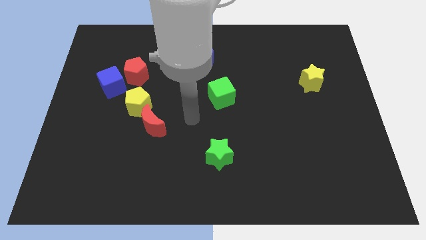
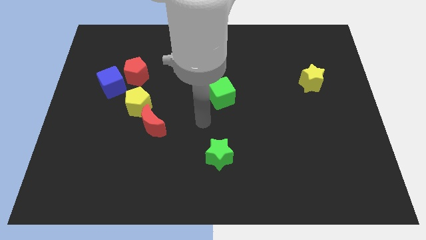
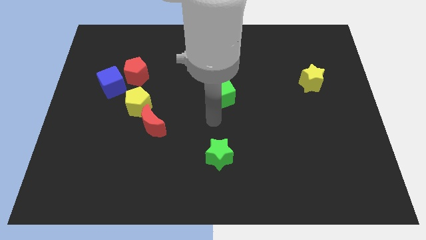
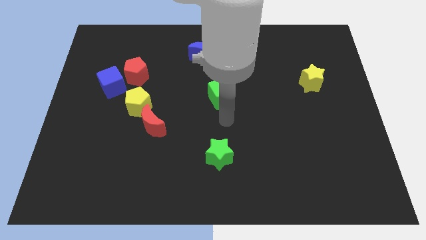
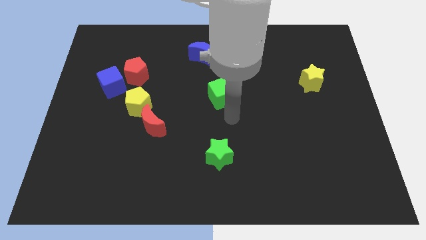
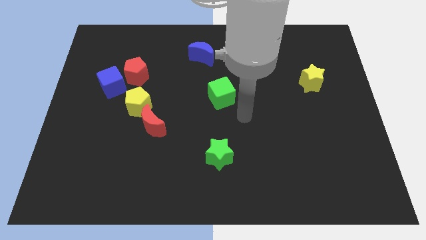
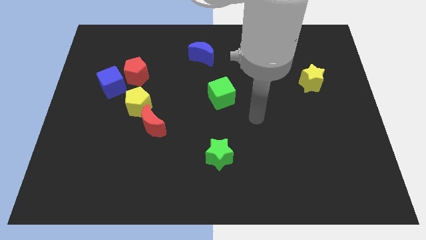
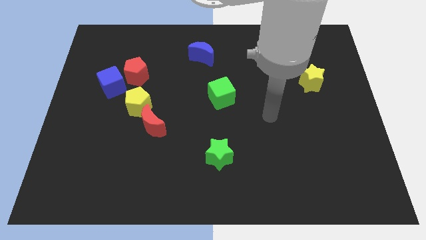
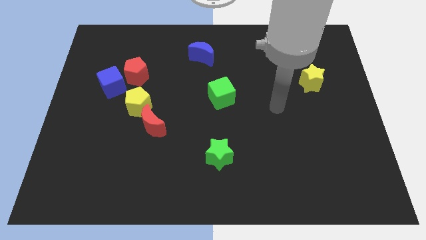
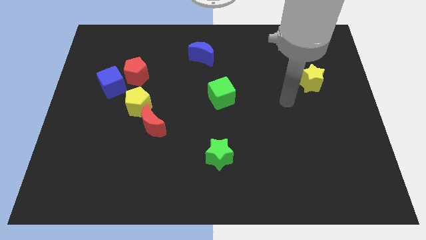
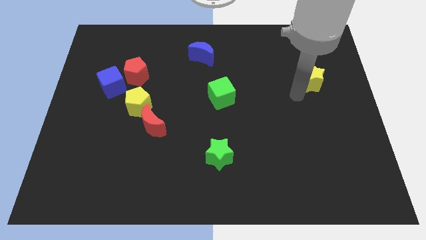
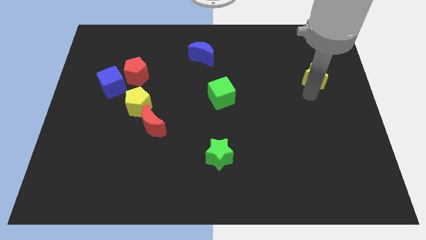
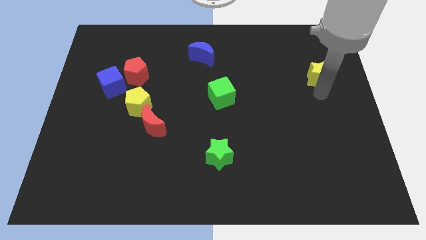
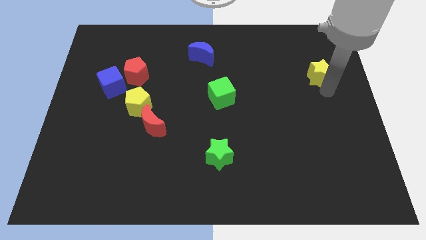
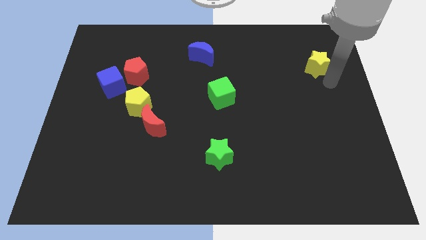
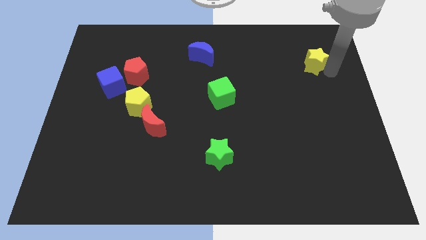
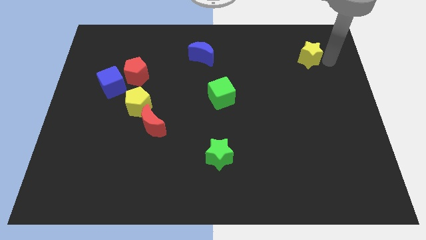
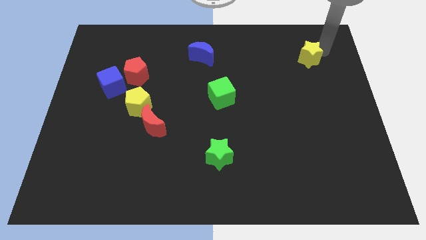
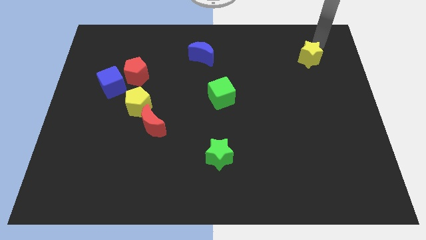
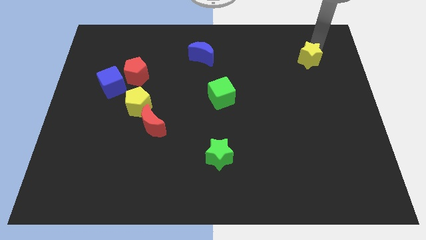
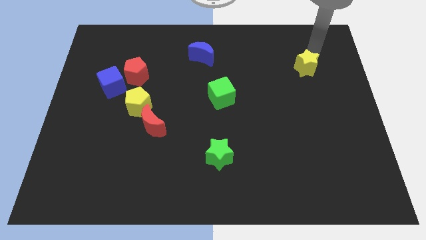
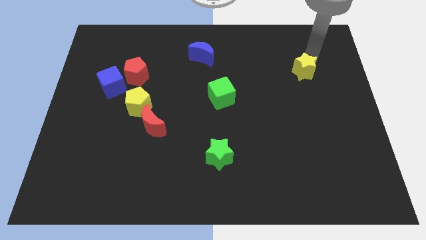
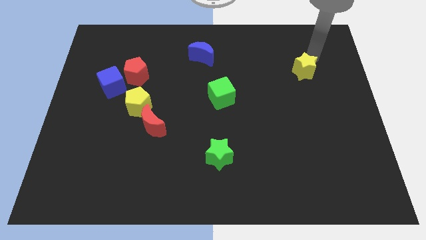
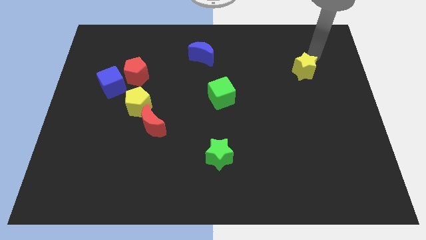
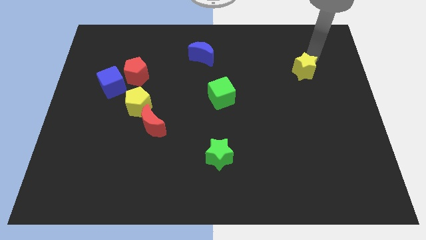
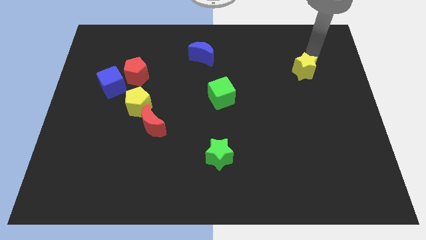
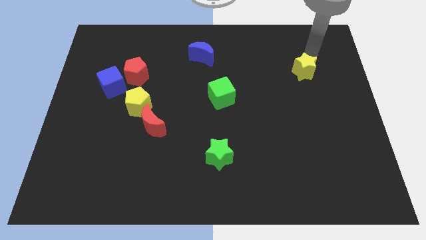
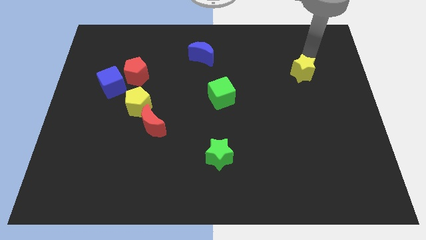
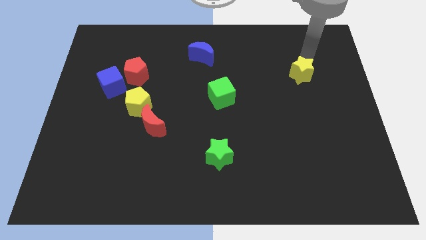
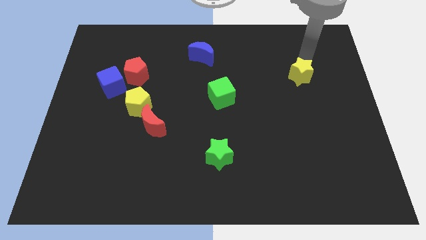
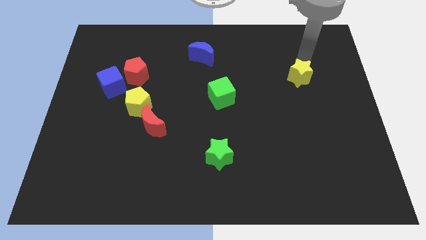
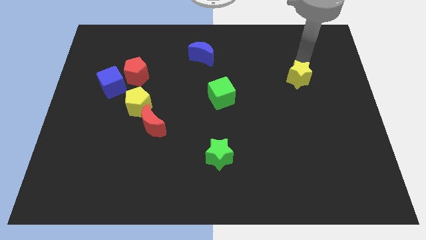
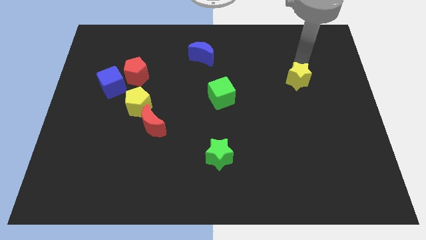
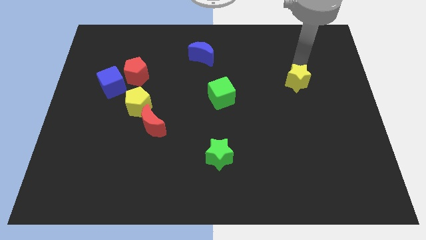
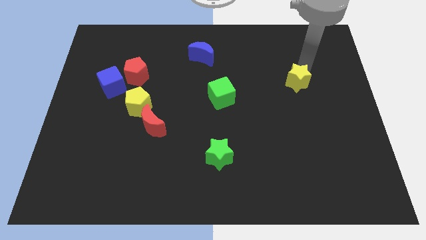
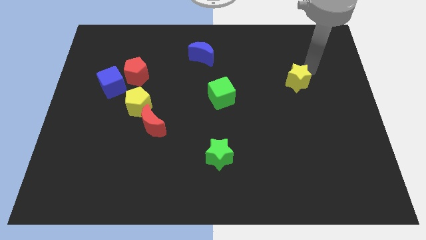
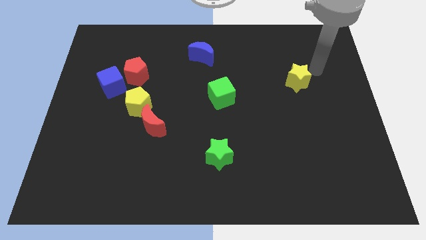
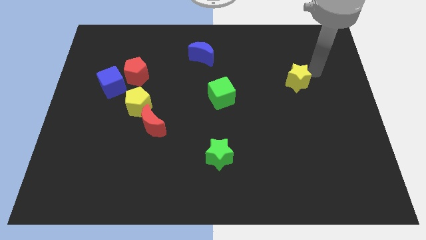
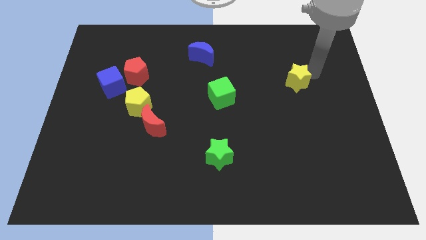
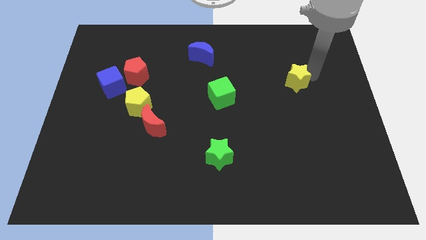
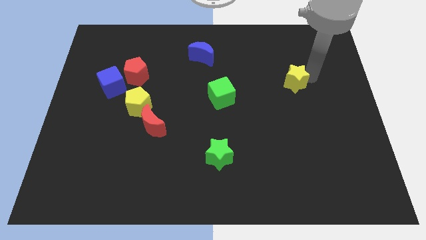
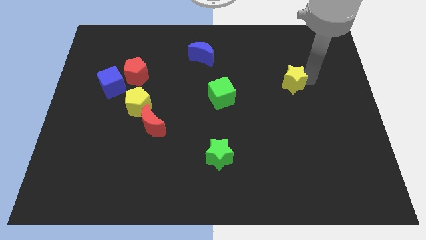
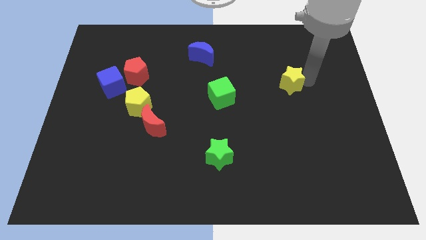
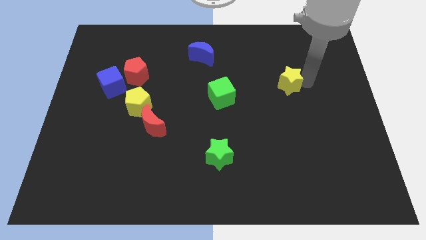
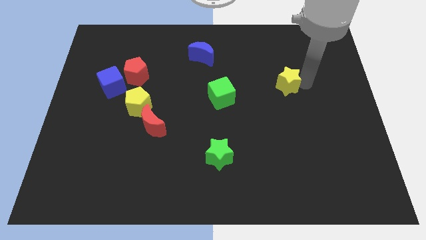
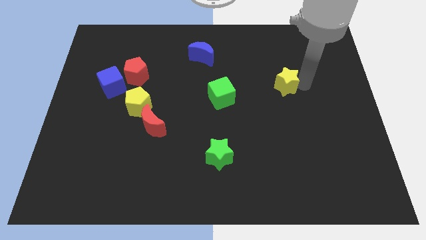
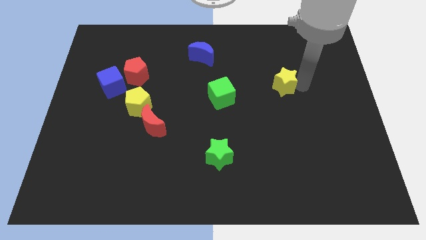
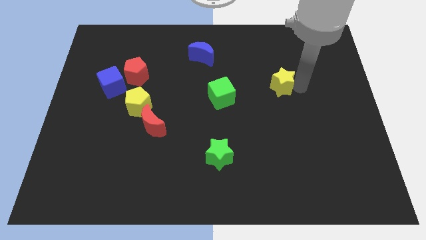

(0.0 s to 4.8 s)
move the yellow star a bit to the left

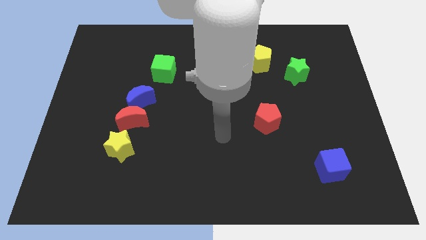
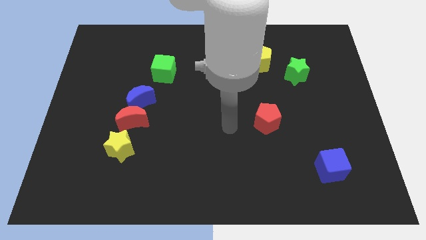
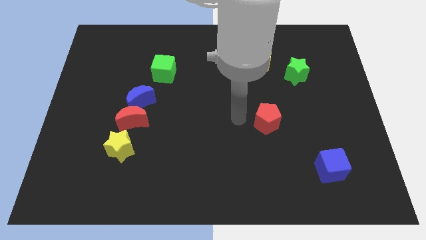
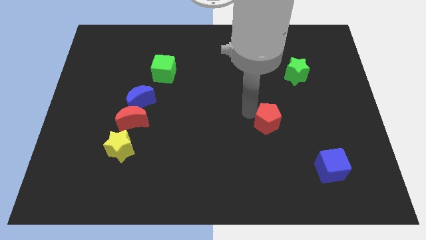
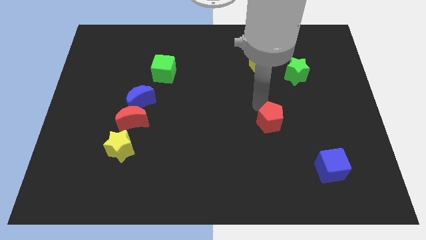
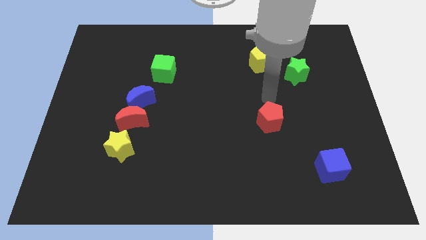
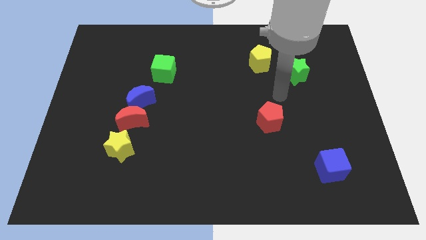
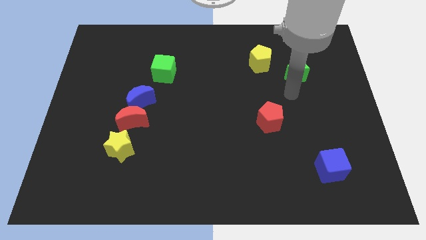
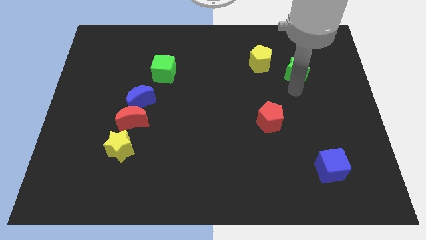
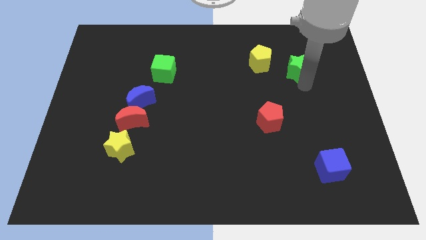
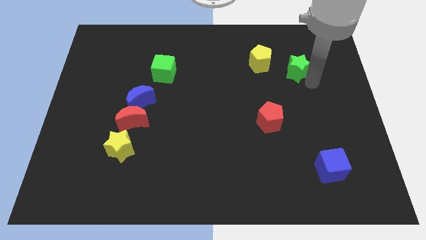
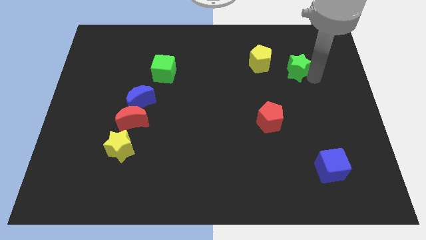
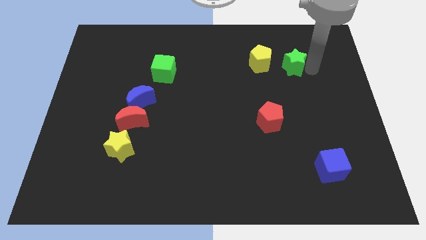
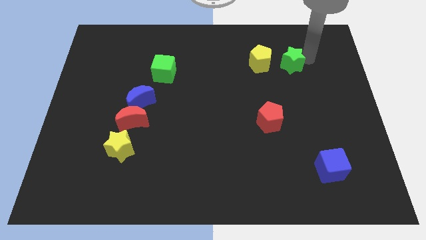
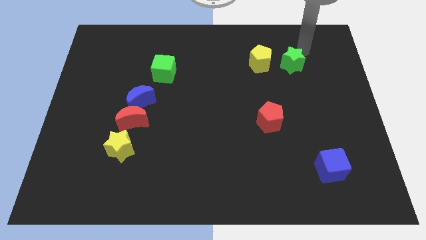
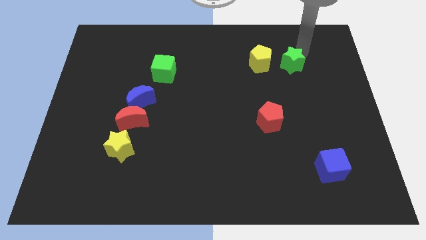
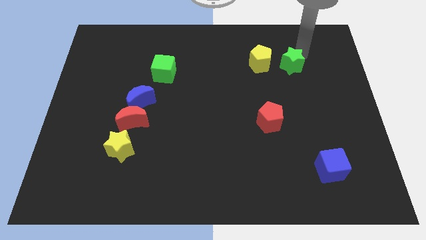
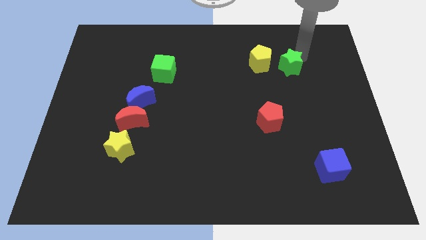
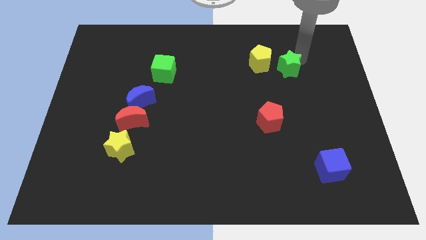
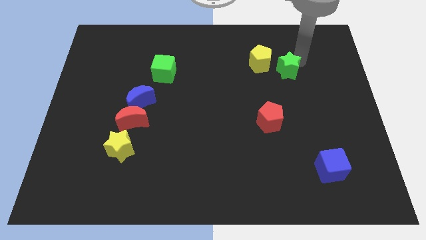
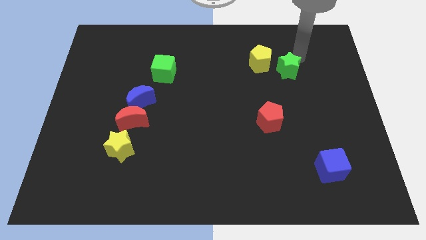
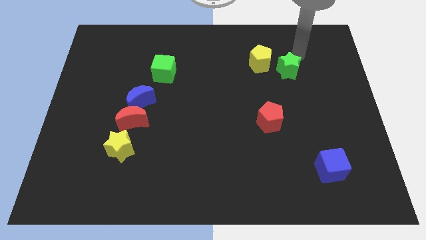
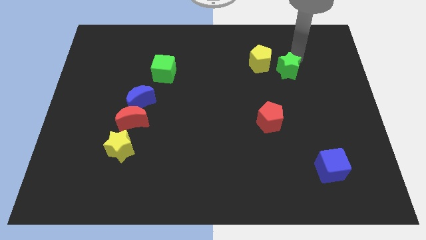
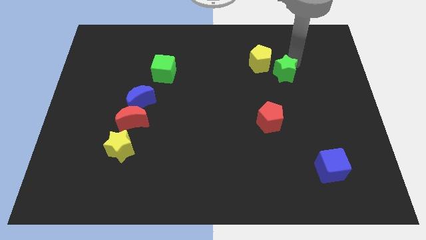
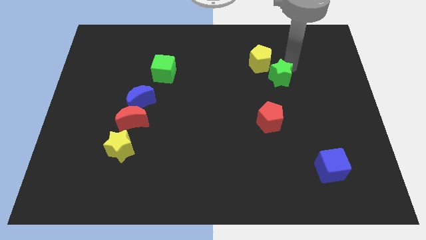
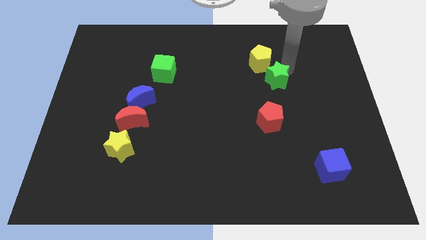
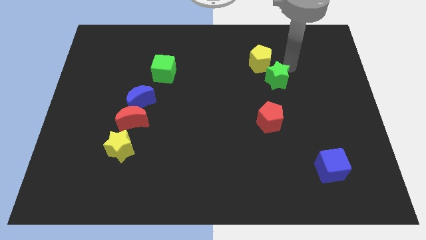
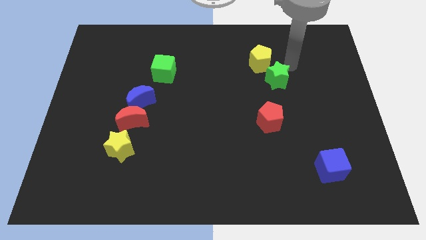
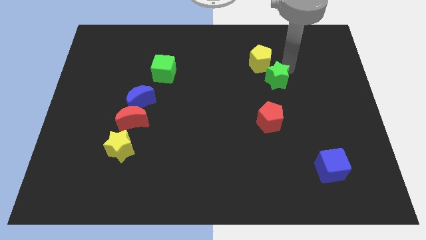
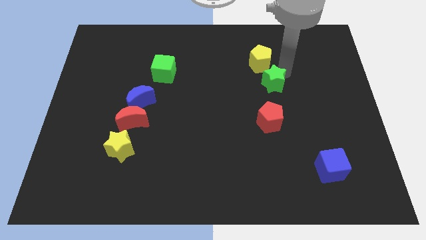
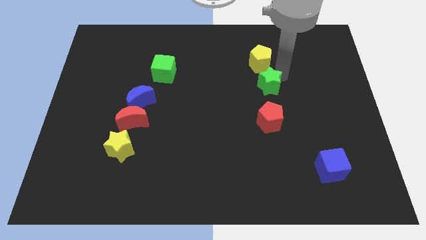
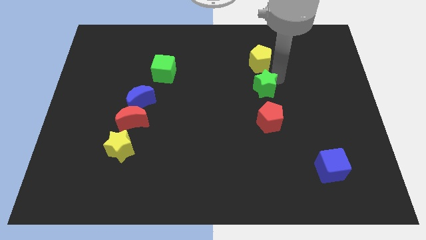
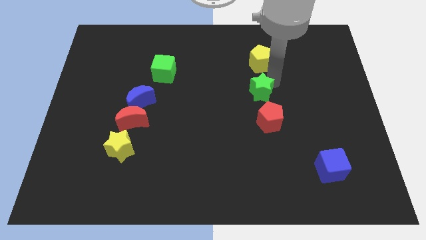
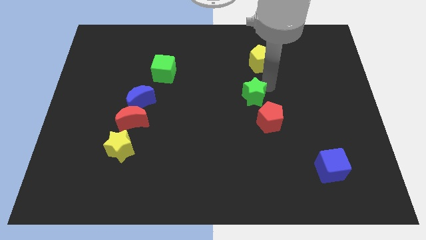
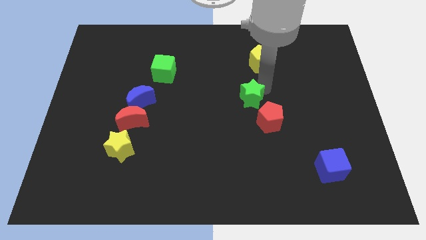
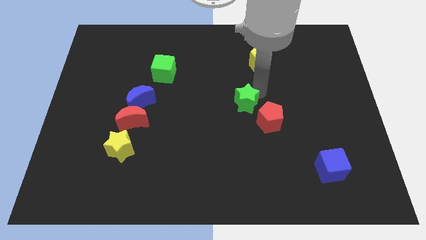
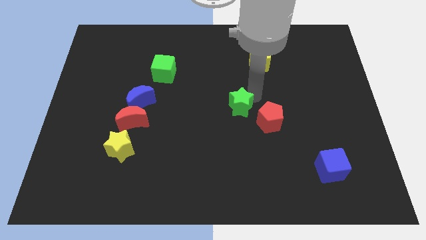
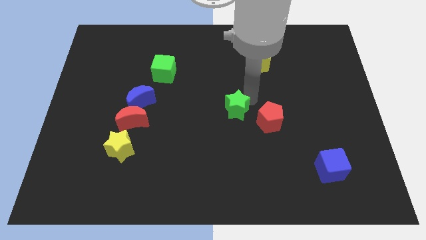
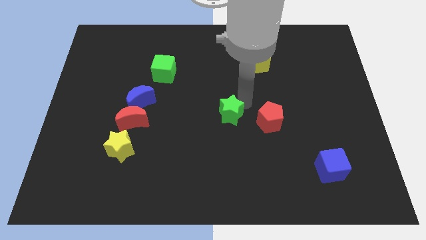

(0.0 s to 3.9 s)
slide the green star down and to the left
